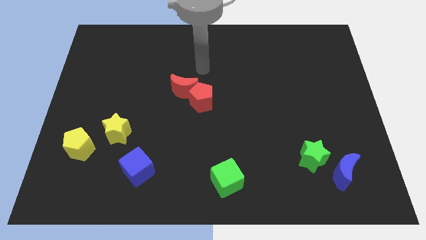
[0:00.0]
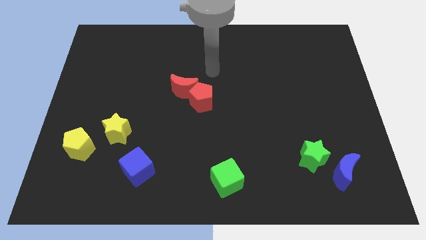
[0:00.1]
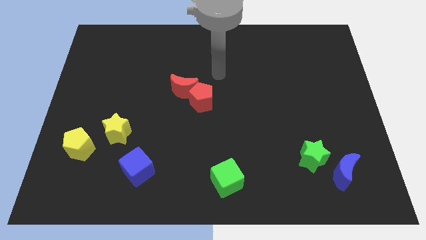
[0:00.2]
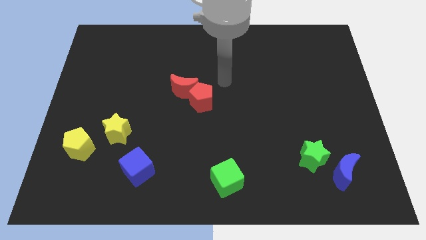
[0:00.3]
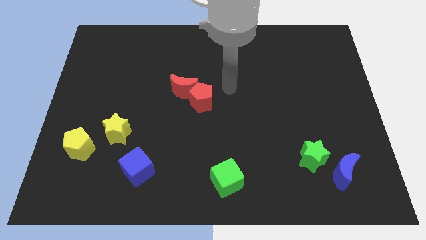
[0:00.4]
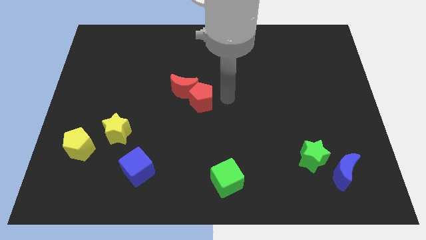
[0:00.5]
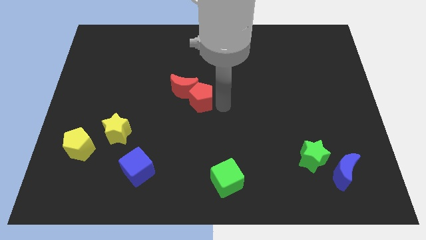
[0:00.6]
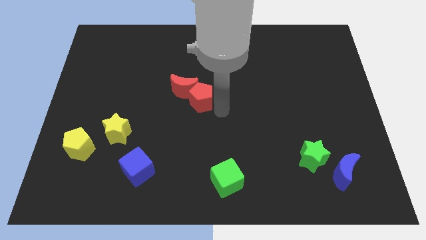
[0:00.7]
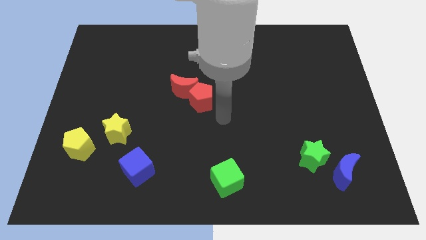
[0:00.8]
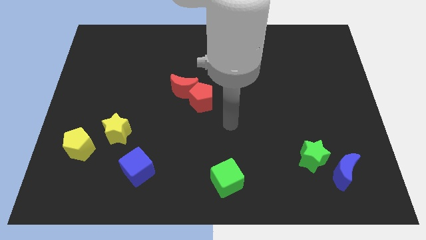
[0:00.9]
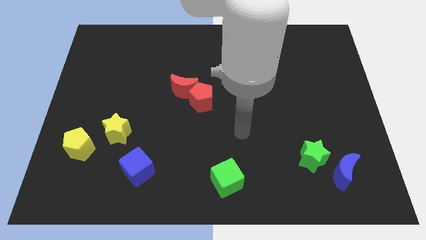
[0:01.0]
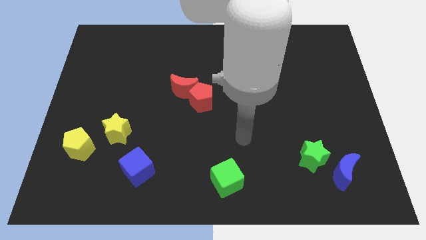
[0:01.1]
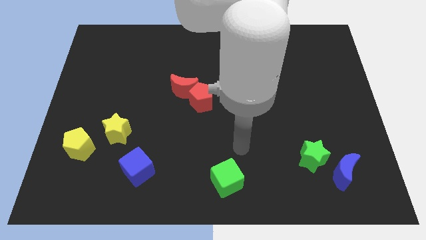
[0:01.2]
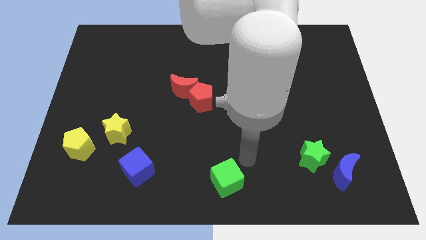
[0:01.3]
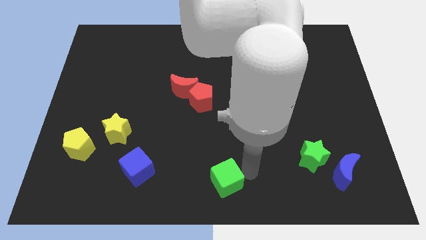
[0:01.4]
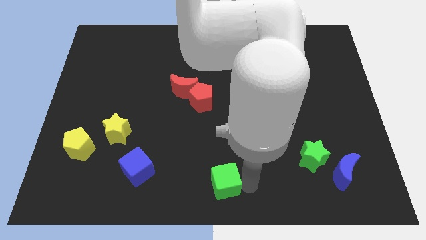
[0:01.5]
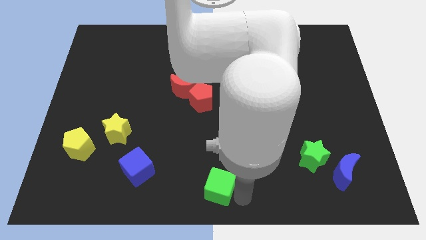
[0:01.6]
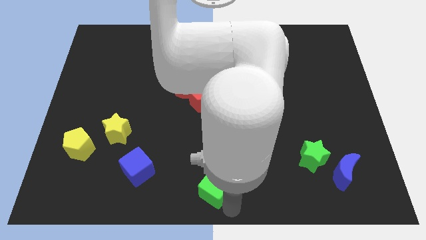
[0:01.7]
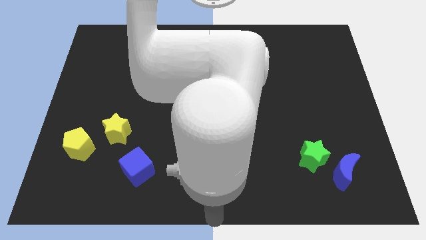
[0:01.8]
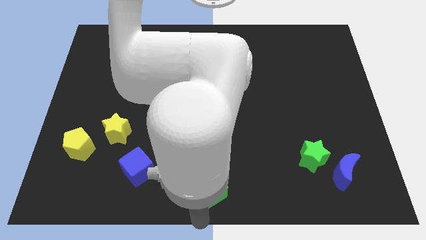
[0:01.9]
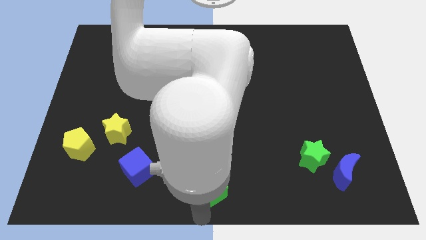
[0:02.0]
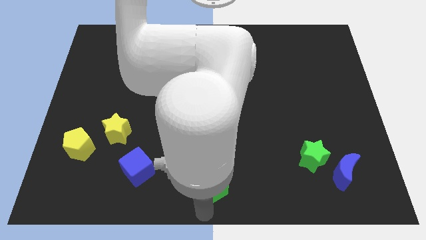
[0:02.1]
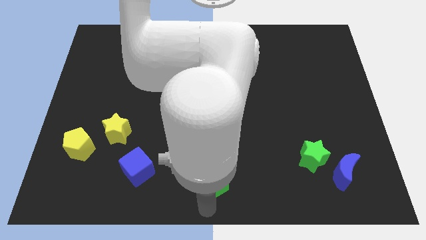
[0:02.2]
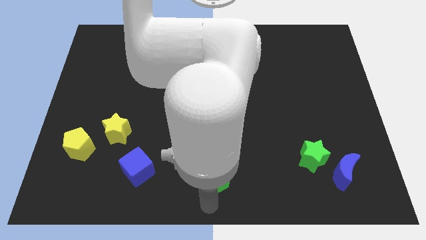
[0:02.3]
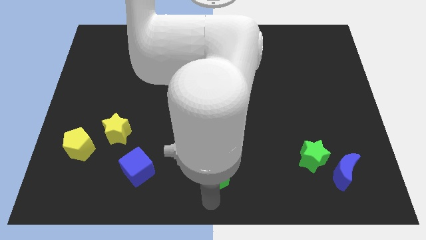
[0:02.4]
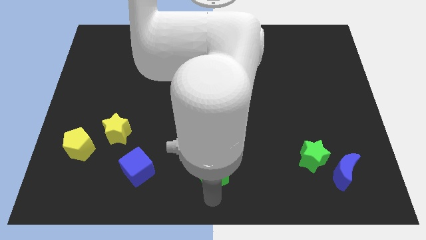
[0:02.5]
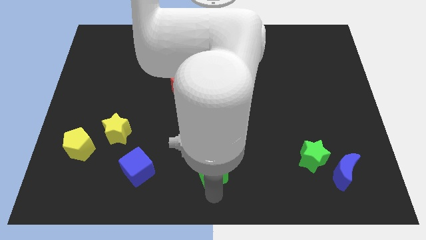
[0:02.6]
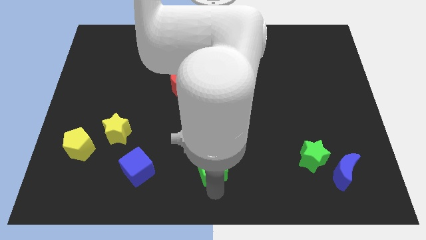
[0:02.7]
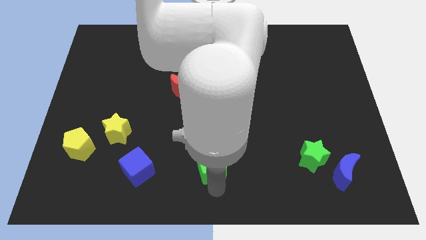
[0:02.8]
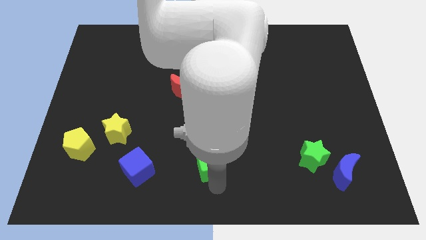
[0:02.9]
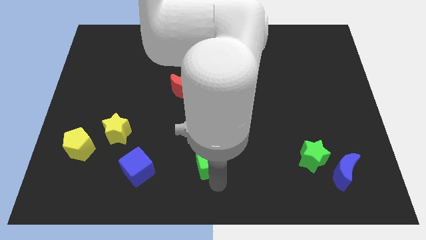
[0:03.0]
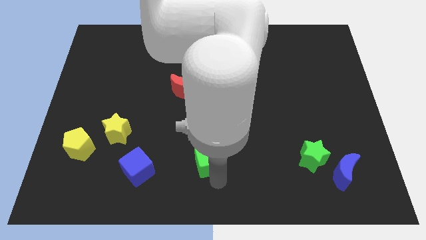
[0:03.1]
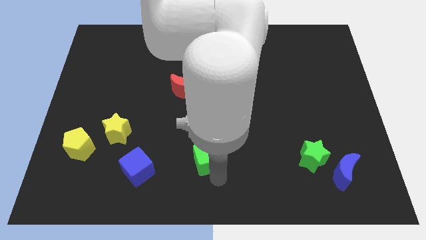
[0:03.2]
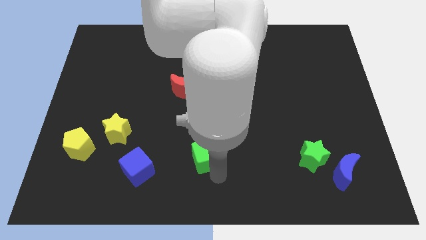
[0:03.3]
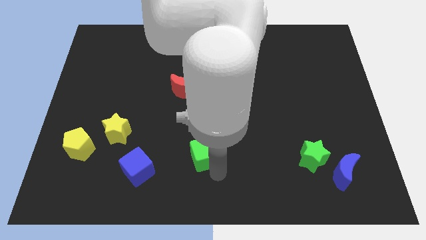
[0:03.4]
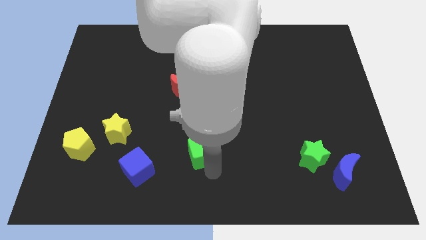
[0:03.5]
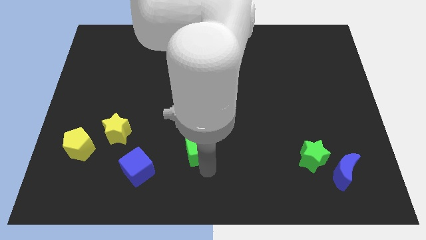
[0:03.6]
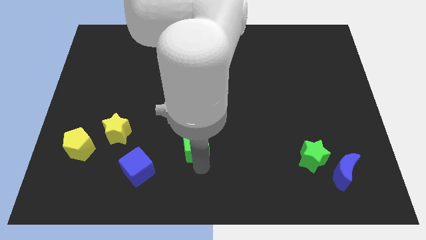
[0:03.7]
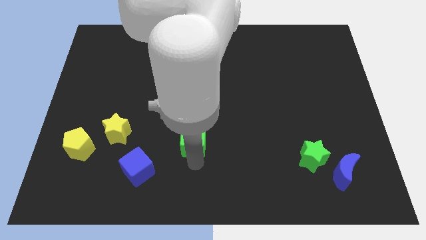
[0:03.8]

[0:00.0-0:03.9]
slide the green cube slightly up

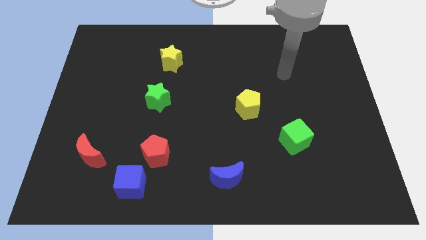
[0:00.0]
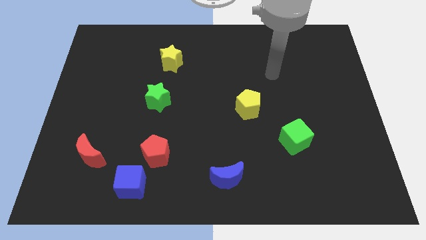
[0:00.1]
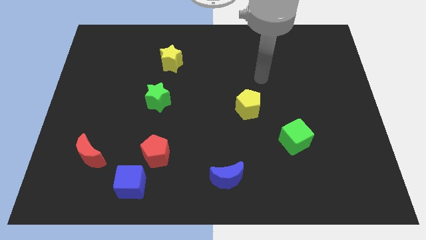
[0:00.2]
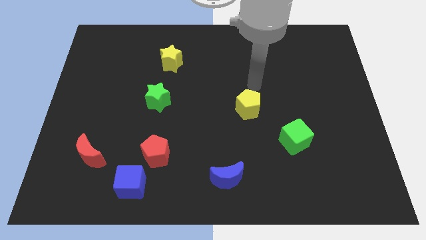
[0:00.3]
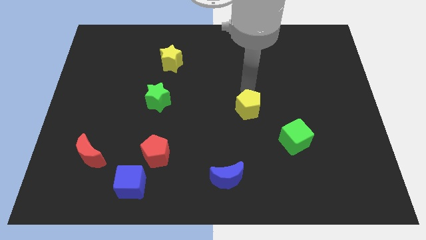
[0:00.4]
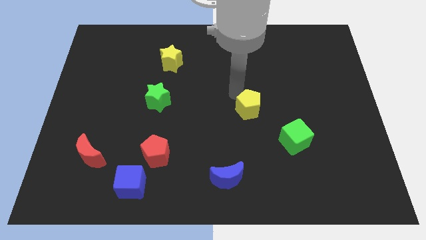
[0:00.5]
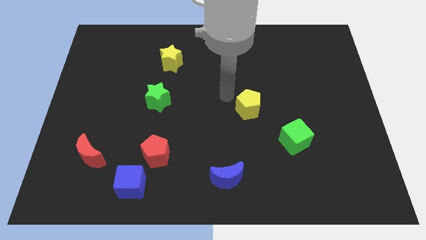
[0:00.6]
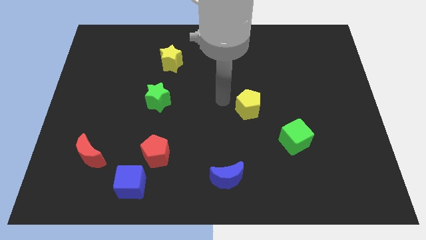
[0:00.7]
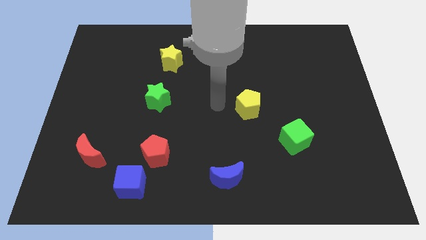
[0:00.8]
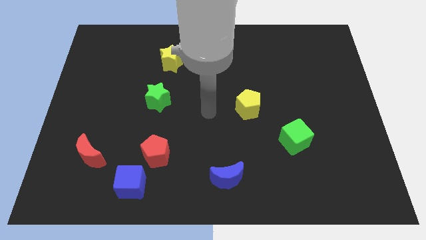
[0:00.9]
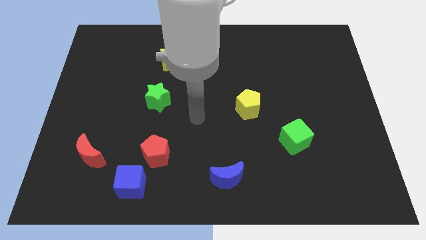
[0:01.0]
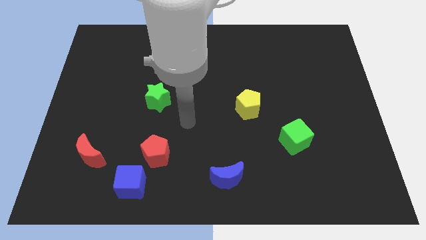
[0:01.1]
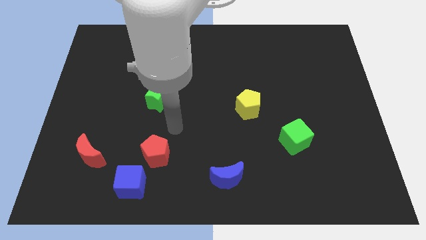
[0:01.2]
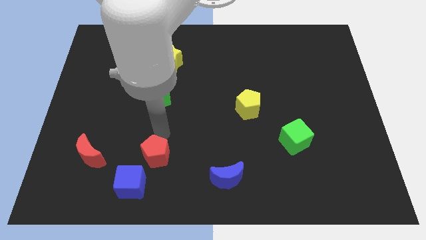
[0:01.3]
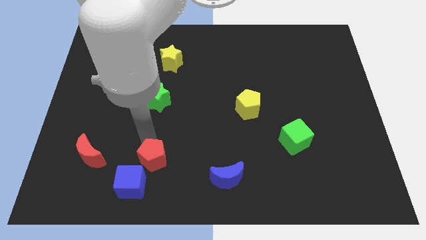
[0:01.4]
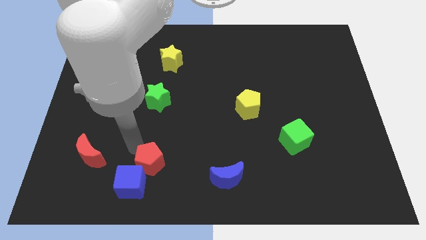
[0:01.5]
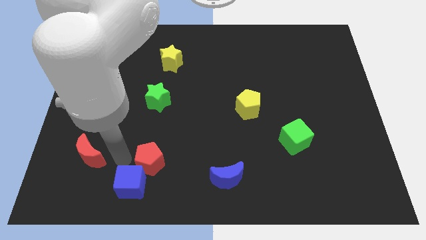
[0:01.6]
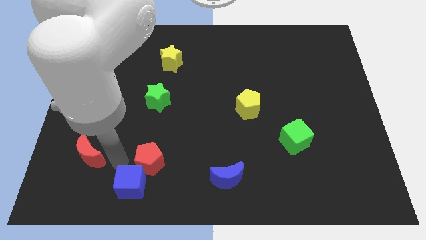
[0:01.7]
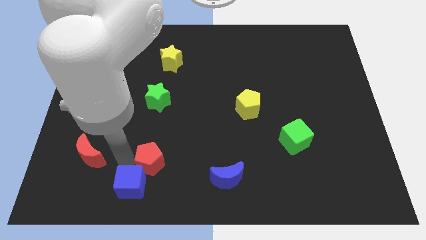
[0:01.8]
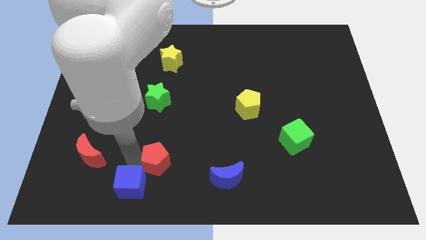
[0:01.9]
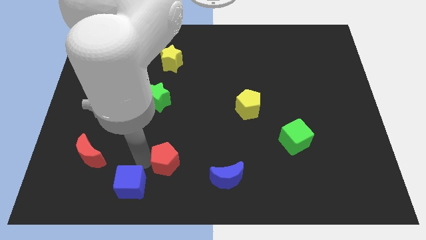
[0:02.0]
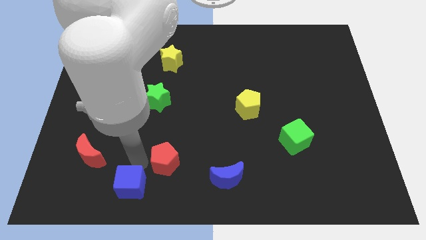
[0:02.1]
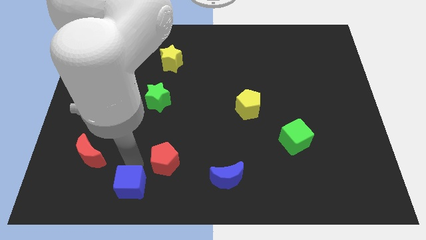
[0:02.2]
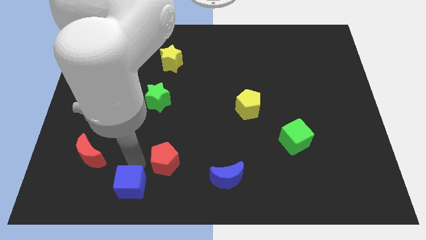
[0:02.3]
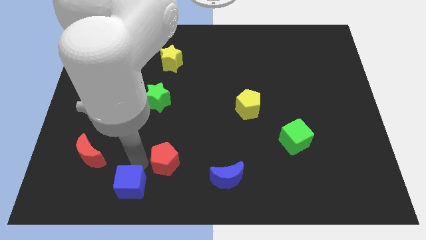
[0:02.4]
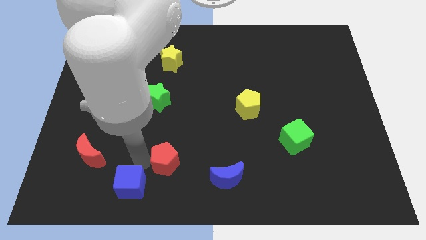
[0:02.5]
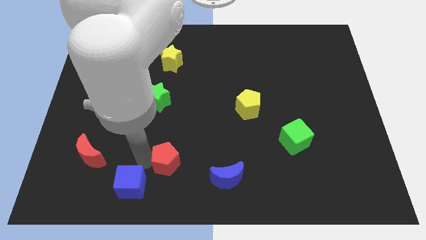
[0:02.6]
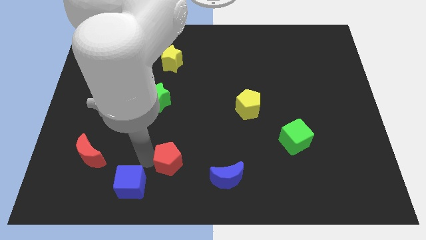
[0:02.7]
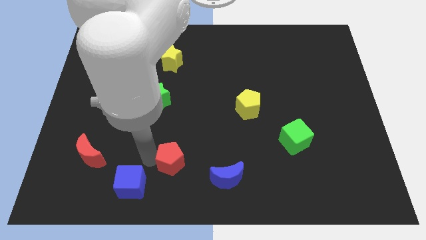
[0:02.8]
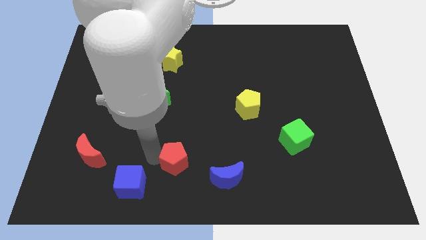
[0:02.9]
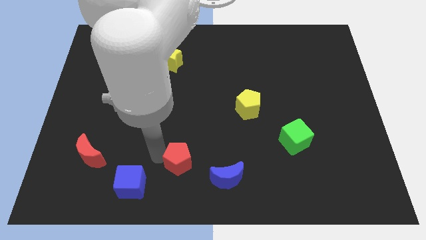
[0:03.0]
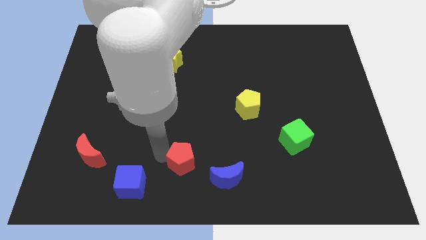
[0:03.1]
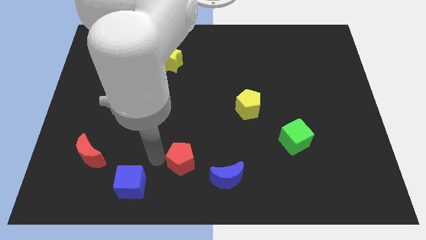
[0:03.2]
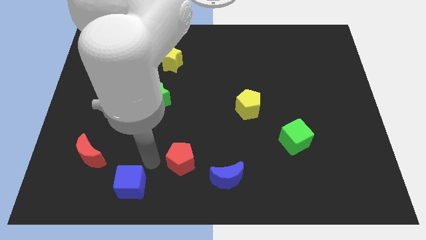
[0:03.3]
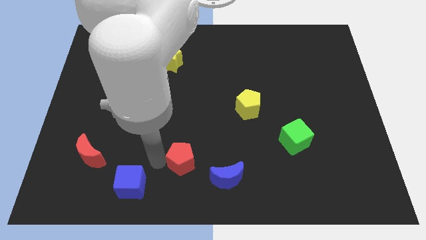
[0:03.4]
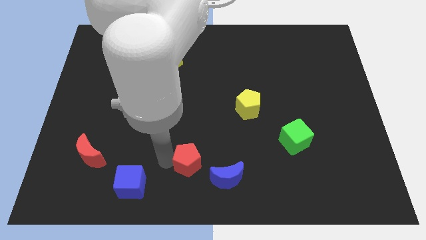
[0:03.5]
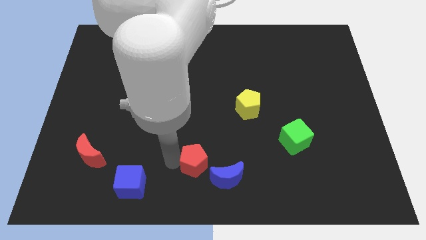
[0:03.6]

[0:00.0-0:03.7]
slightly push the red pentagon to the right
